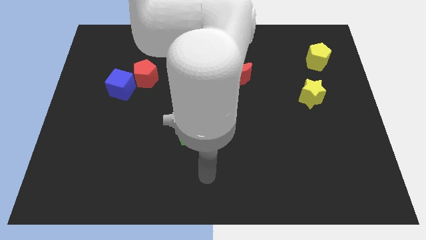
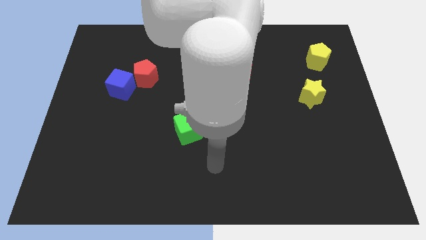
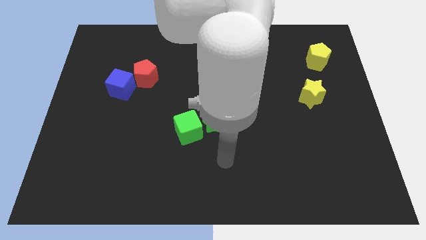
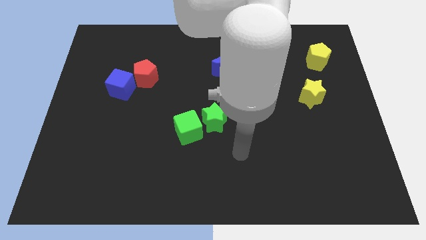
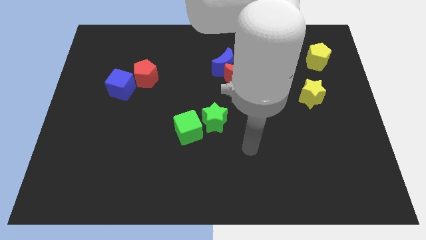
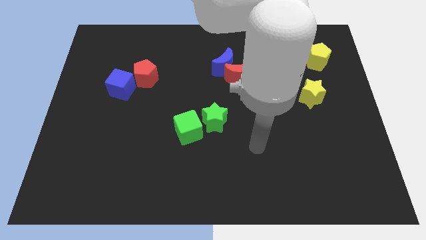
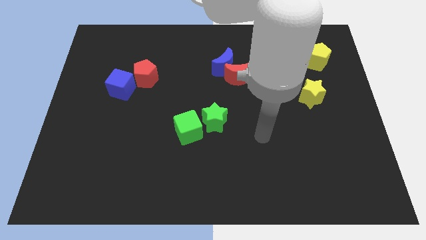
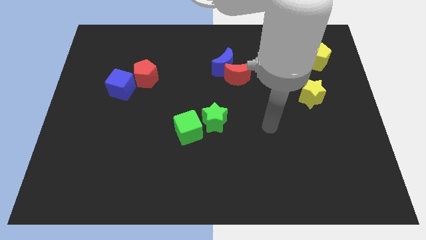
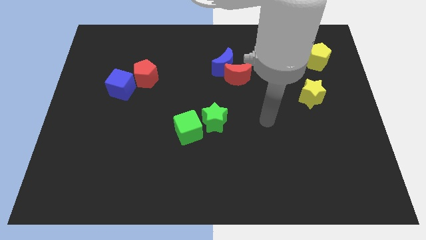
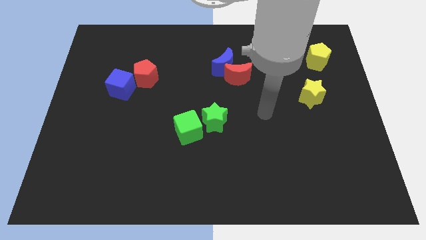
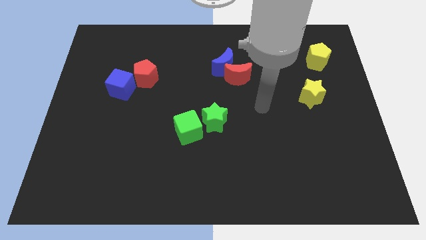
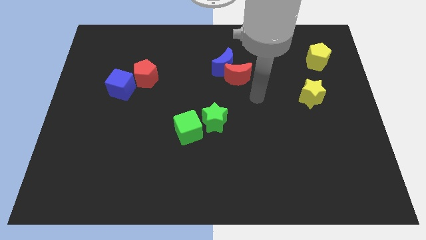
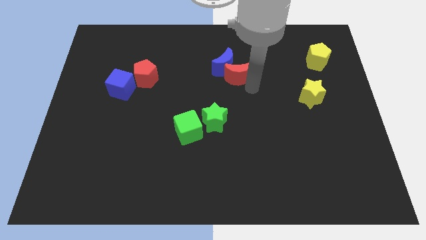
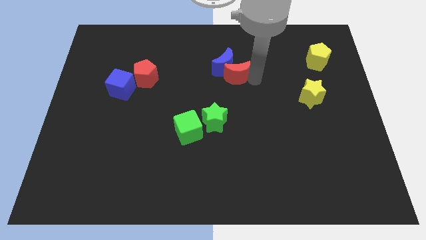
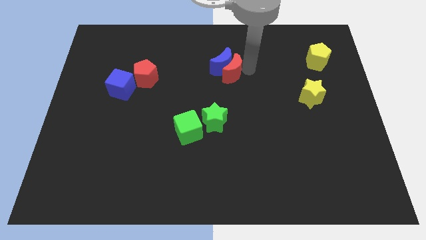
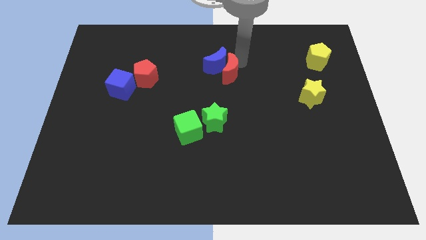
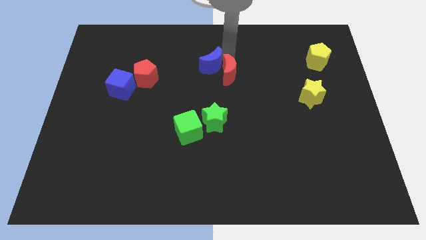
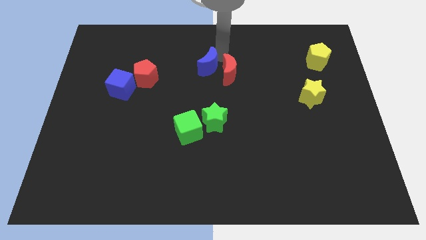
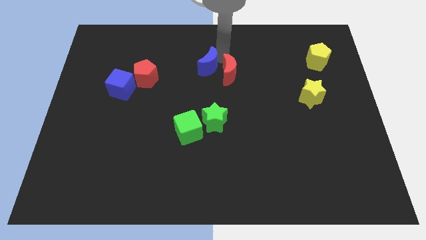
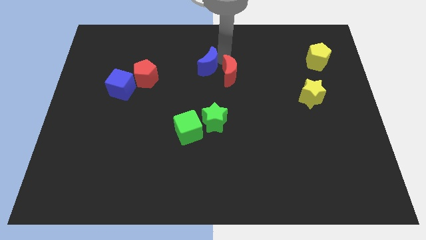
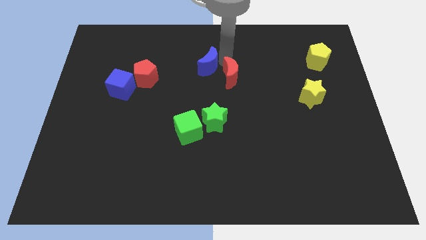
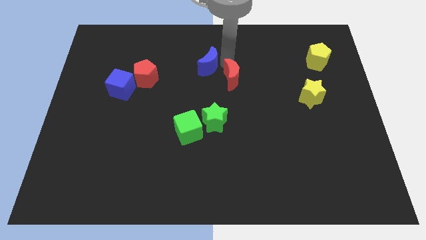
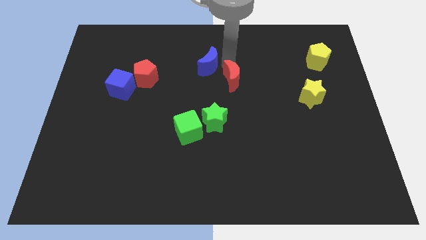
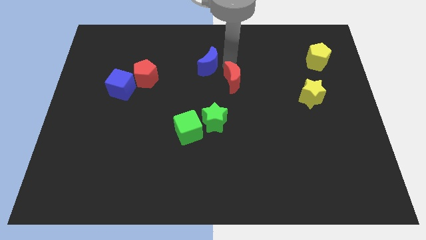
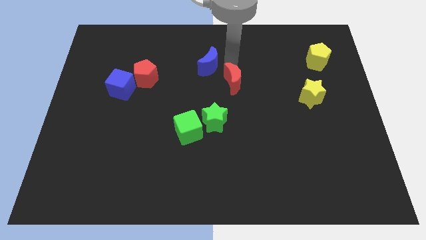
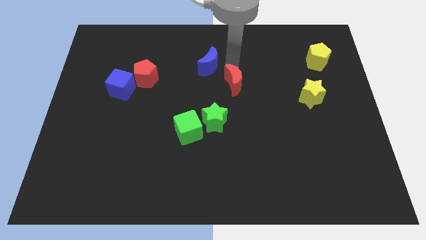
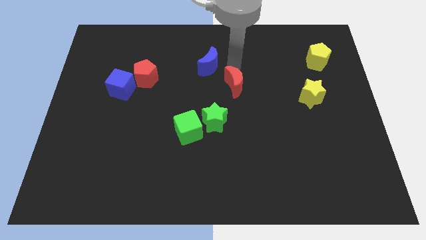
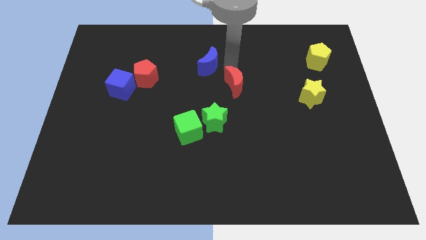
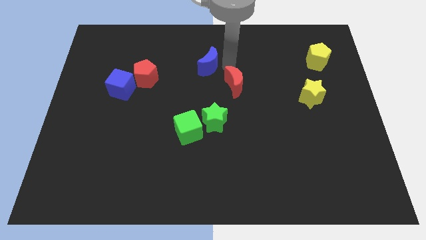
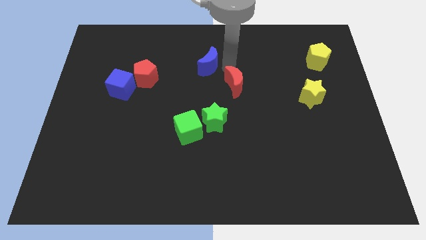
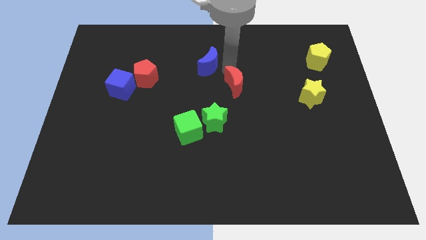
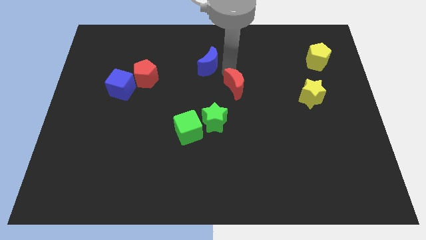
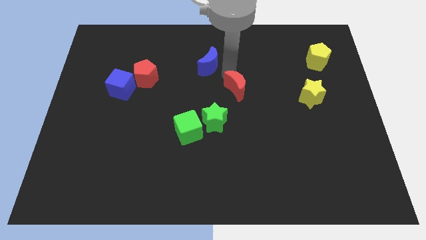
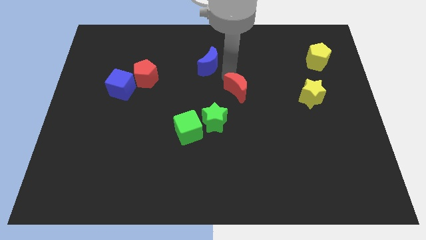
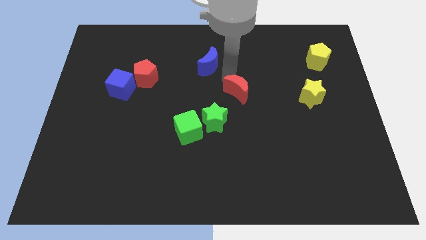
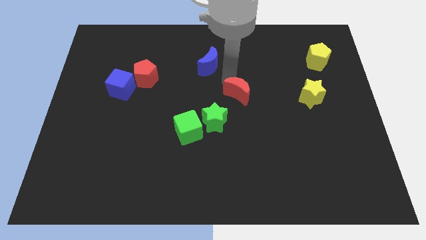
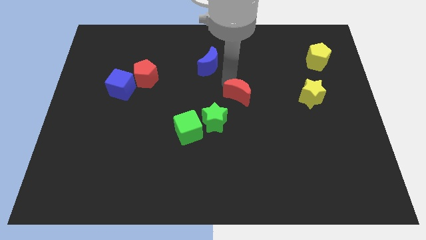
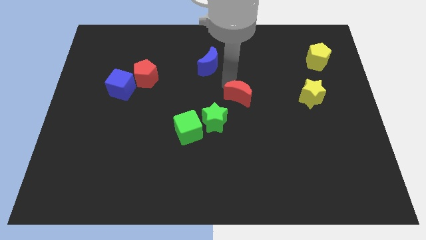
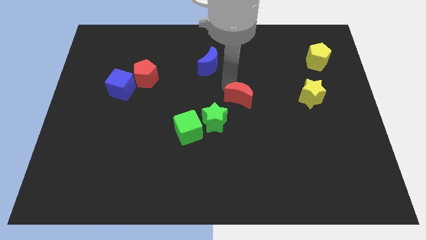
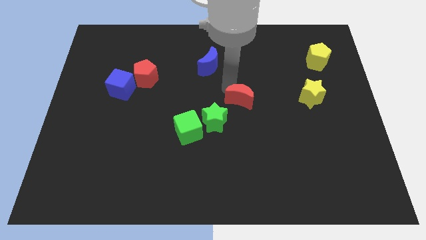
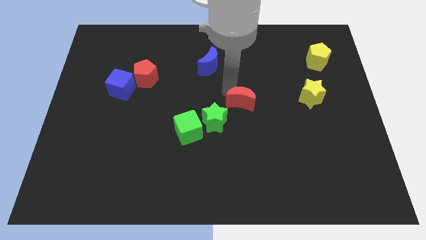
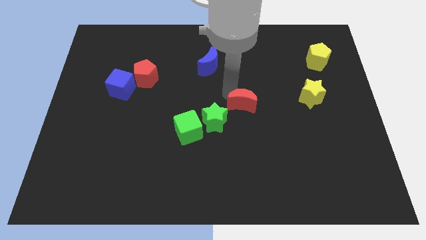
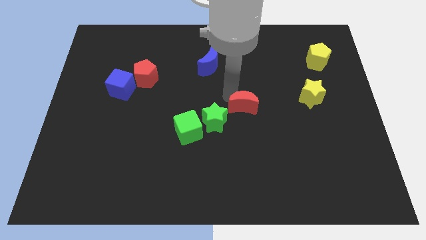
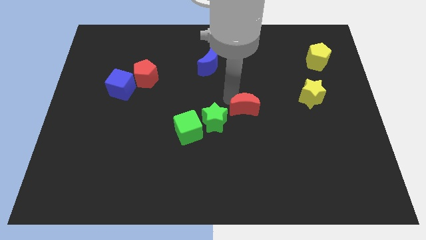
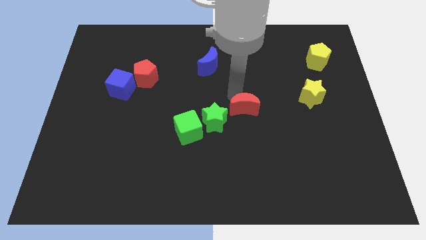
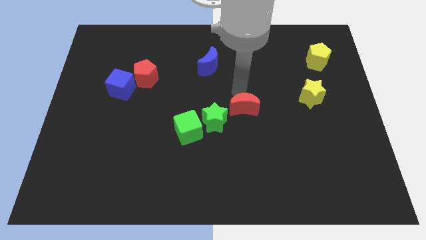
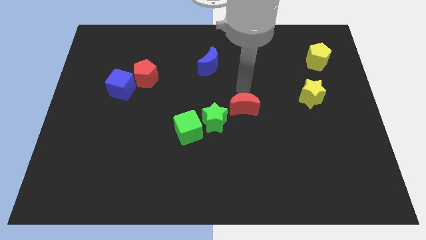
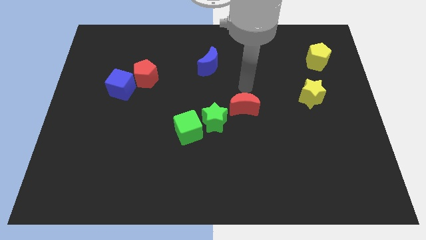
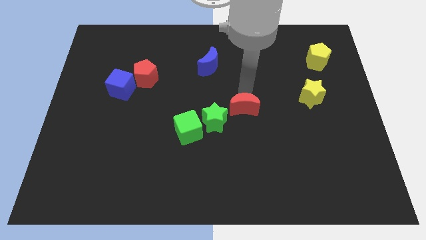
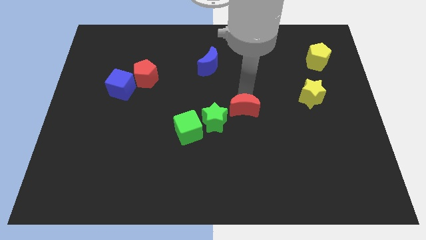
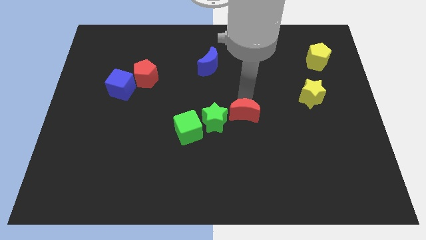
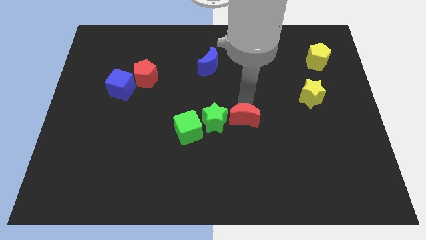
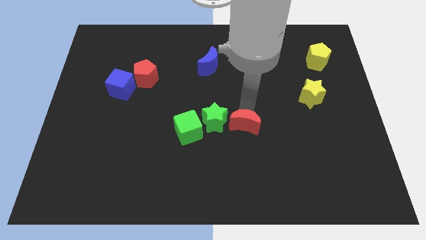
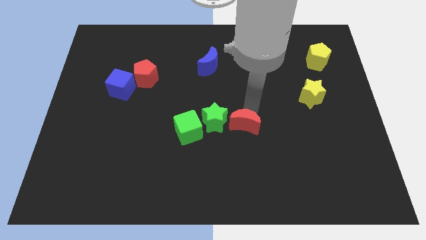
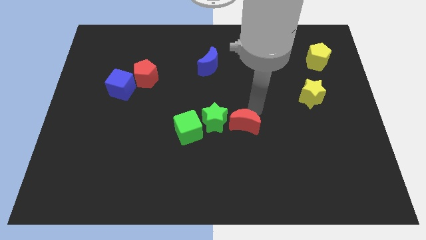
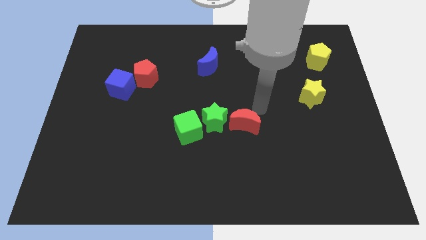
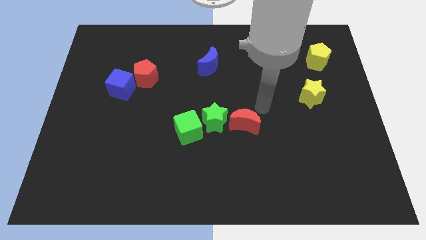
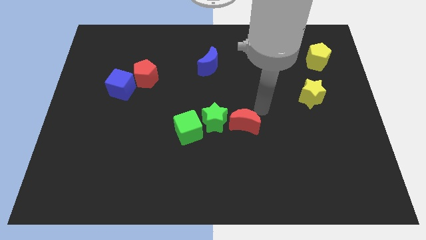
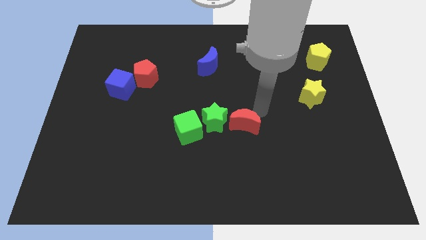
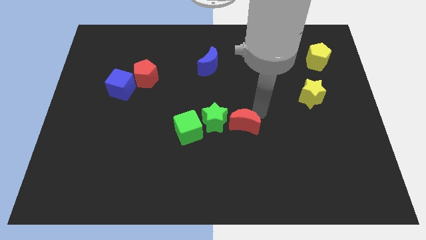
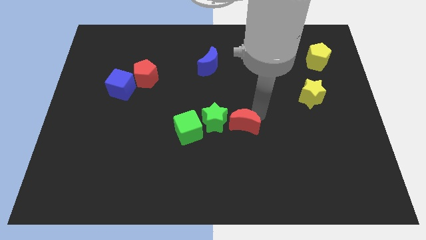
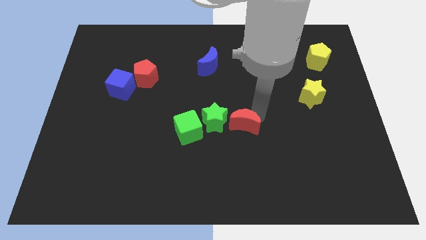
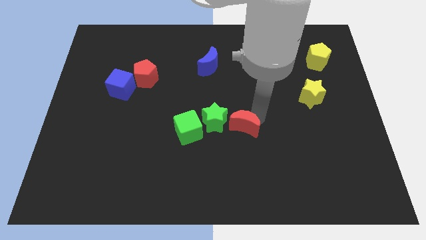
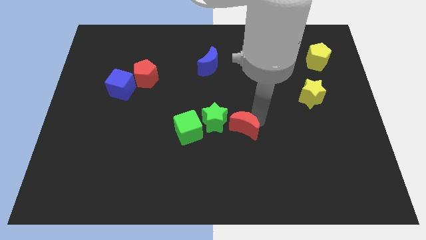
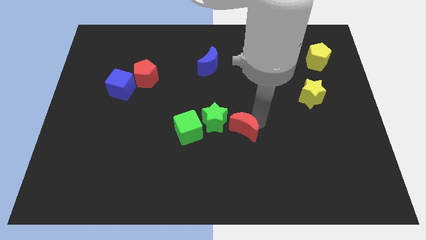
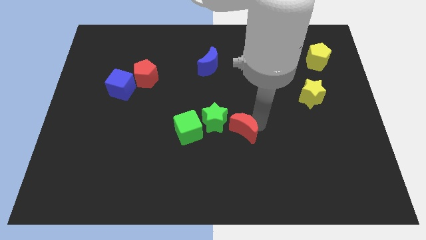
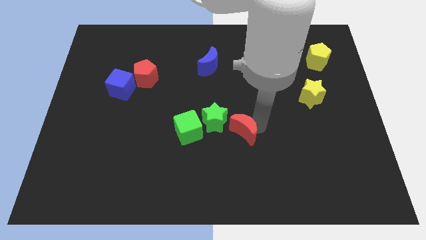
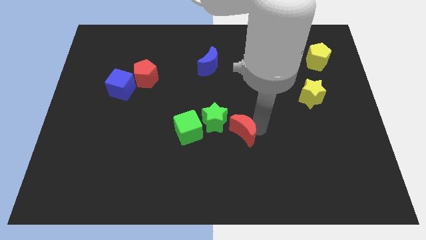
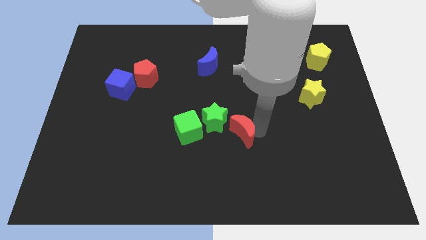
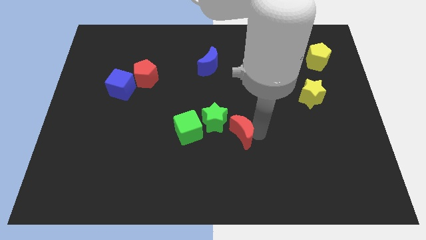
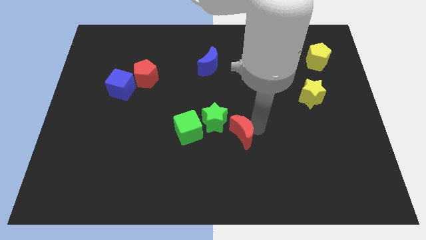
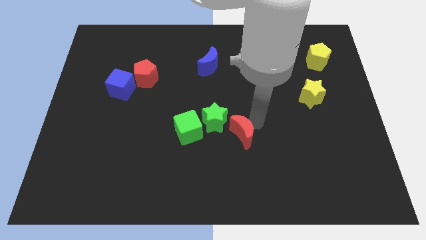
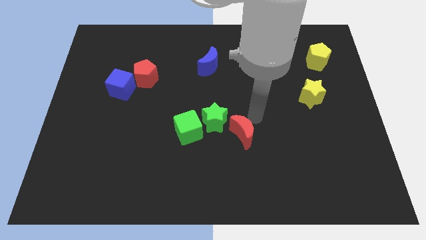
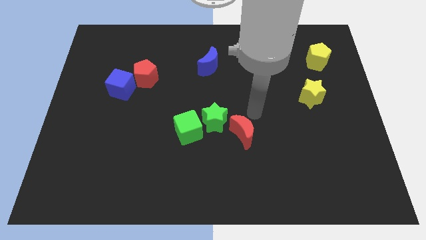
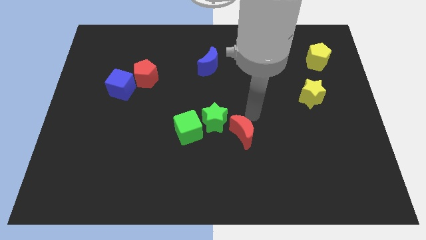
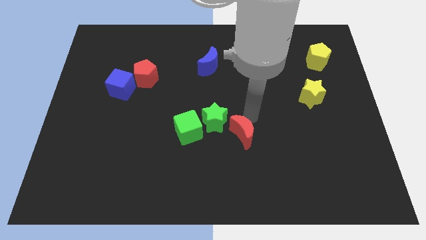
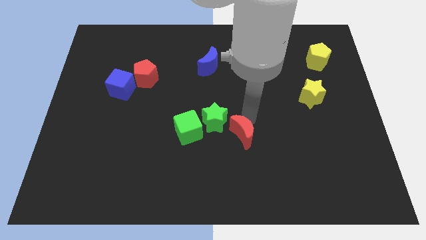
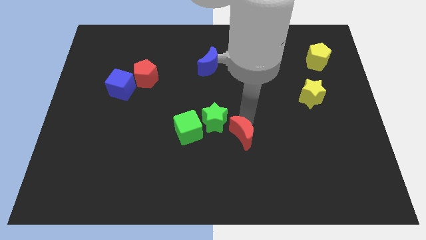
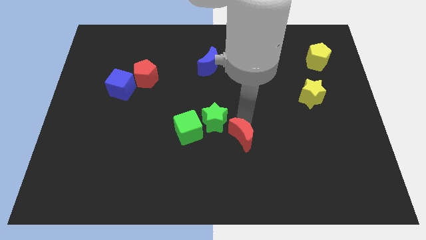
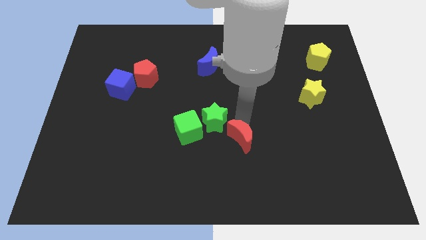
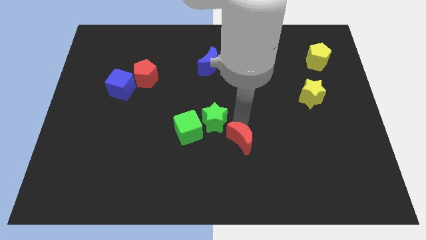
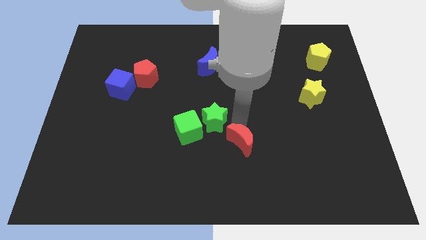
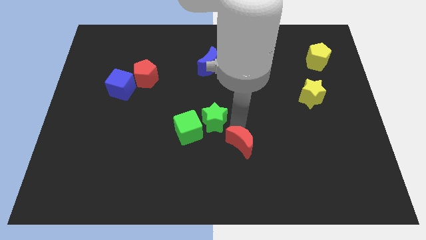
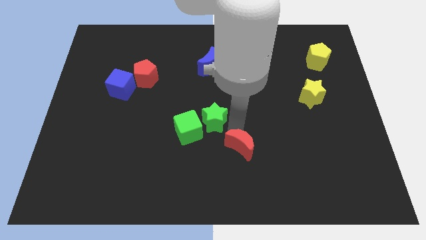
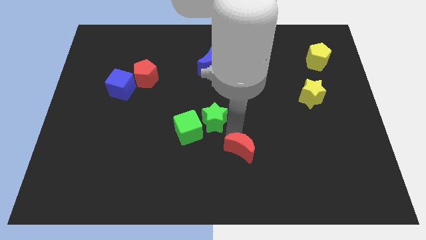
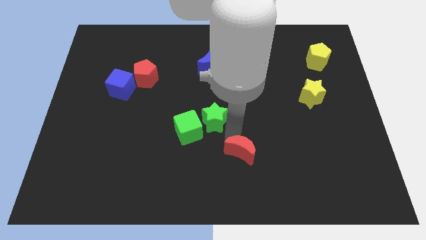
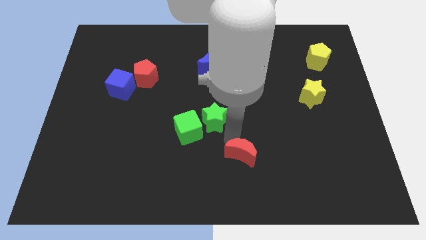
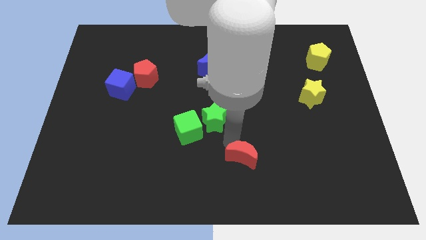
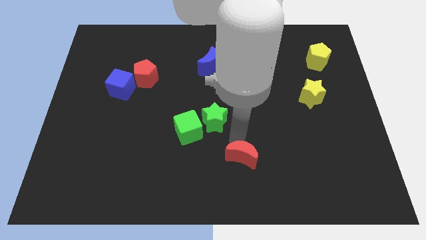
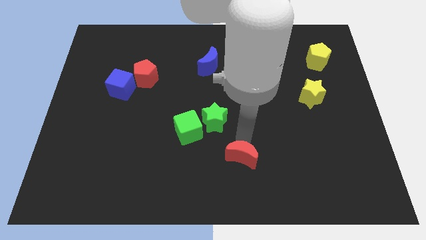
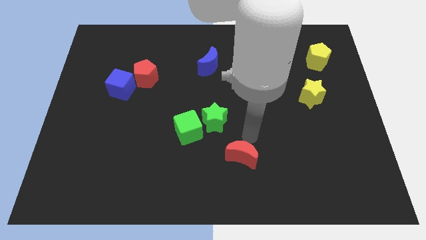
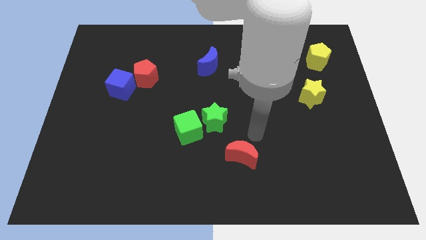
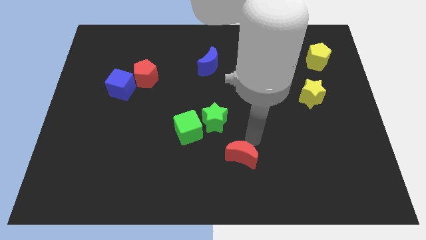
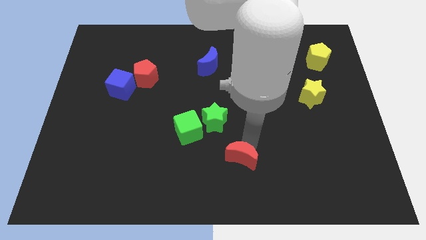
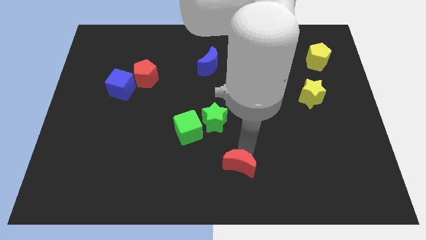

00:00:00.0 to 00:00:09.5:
push the red moon to the bottom
